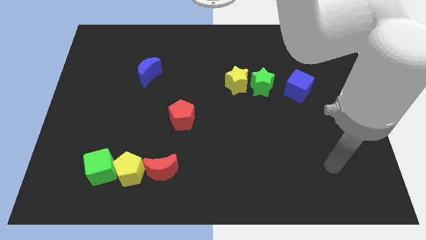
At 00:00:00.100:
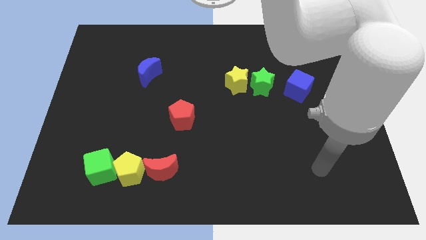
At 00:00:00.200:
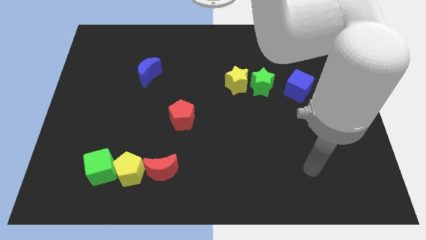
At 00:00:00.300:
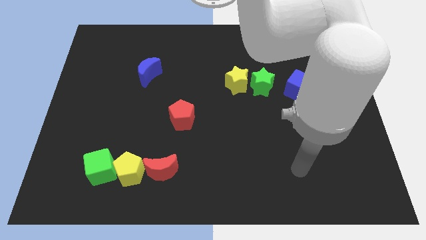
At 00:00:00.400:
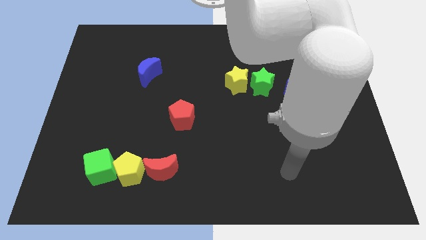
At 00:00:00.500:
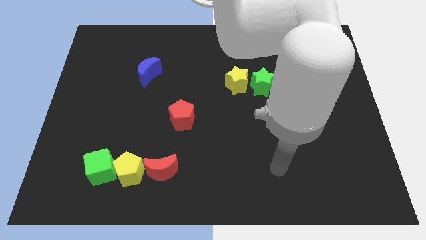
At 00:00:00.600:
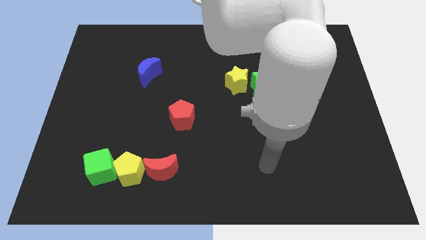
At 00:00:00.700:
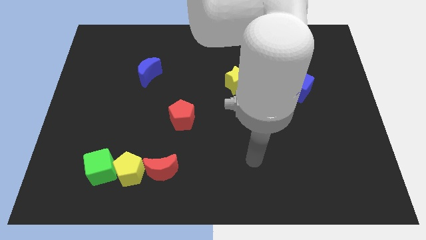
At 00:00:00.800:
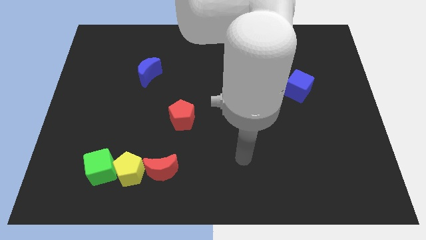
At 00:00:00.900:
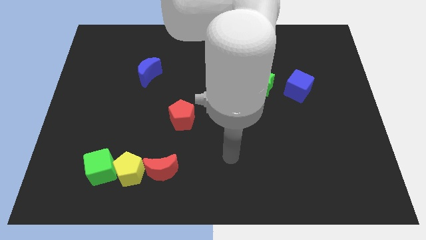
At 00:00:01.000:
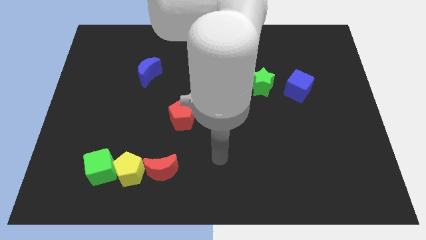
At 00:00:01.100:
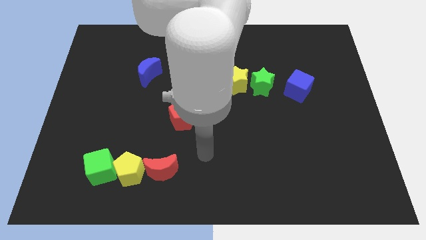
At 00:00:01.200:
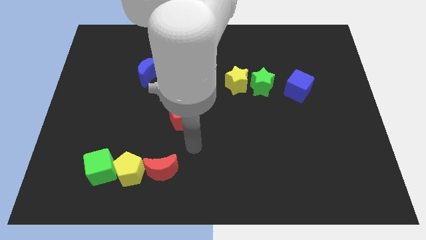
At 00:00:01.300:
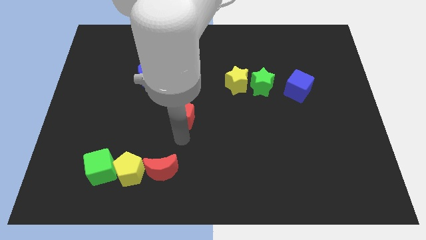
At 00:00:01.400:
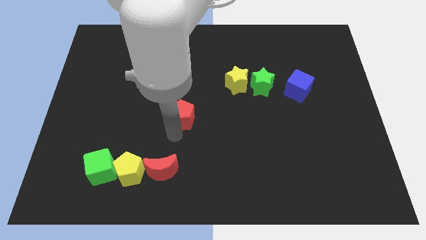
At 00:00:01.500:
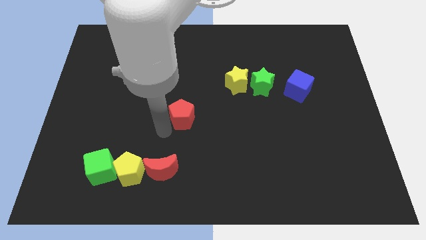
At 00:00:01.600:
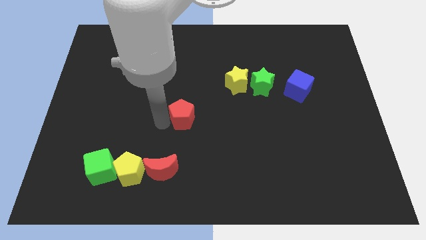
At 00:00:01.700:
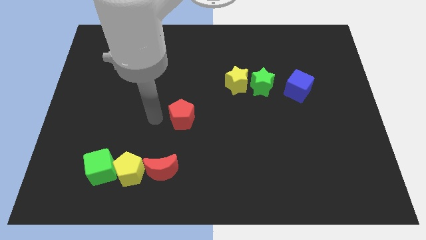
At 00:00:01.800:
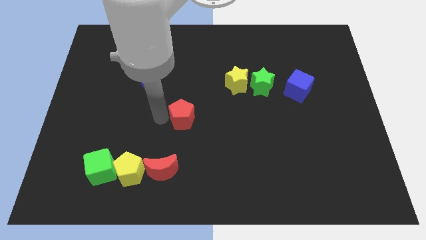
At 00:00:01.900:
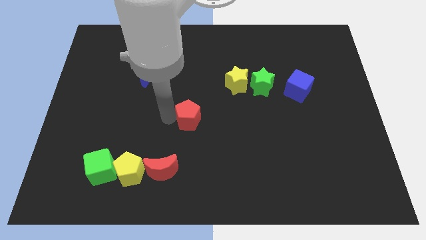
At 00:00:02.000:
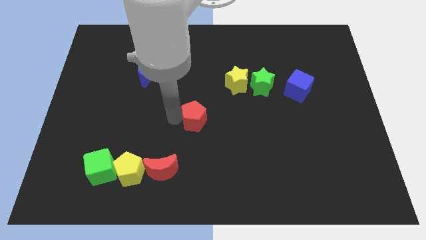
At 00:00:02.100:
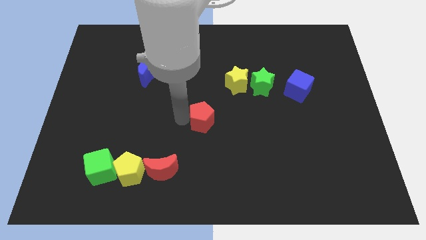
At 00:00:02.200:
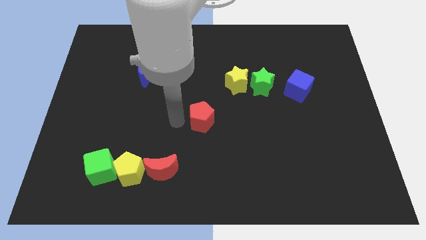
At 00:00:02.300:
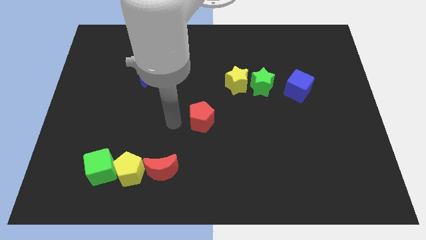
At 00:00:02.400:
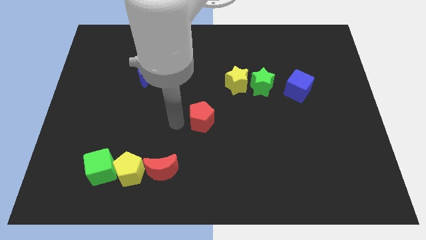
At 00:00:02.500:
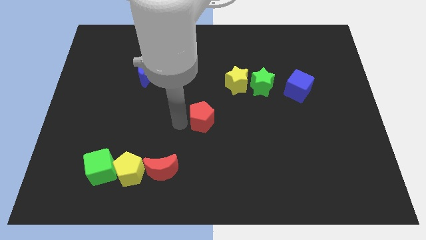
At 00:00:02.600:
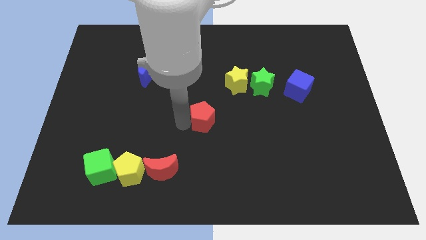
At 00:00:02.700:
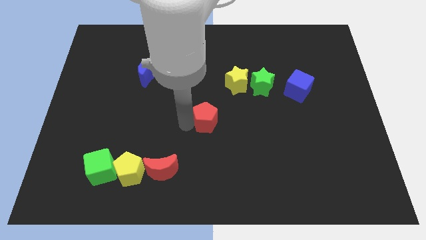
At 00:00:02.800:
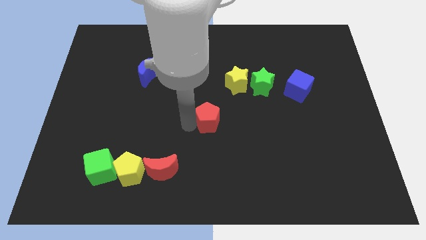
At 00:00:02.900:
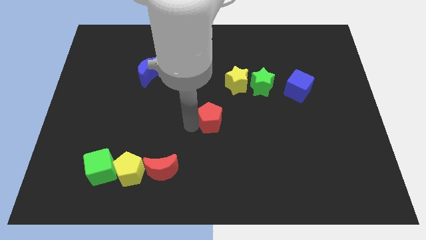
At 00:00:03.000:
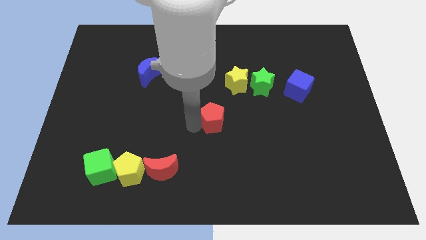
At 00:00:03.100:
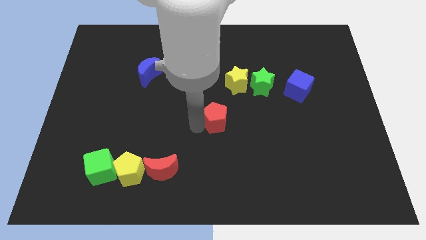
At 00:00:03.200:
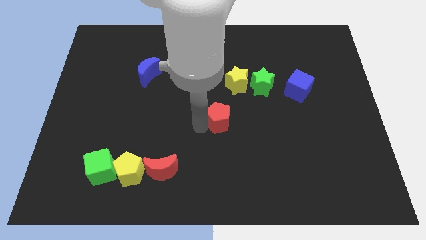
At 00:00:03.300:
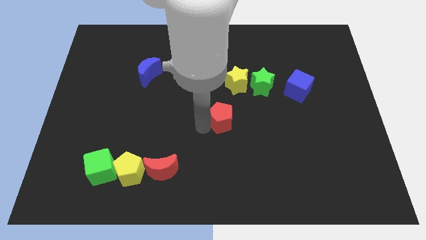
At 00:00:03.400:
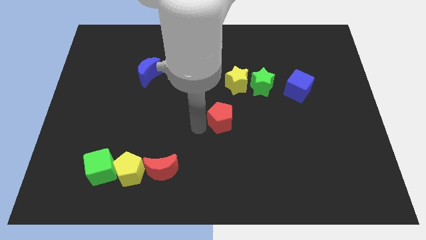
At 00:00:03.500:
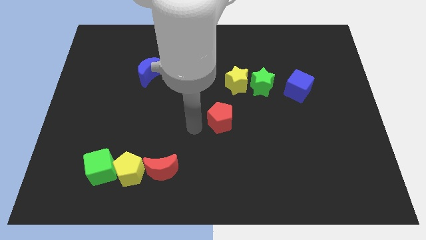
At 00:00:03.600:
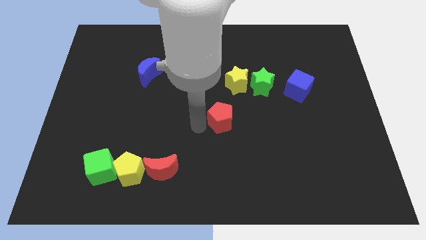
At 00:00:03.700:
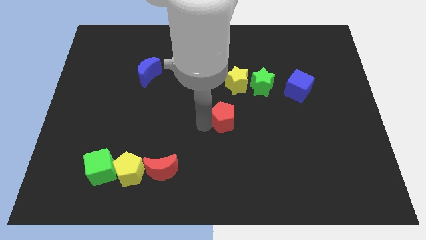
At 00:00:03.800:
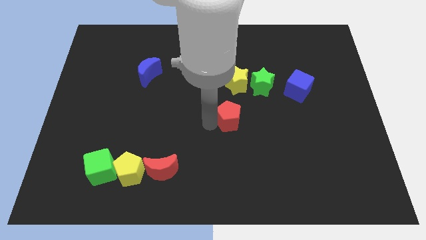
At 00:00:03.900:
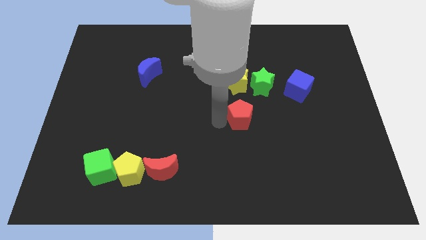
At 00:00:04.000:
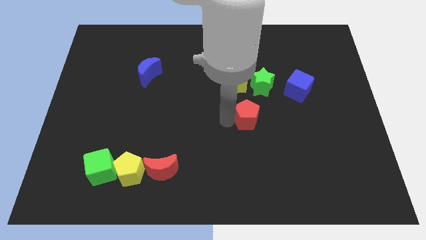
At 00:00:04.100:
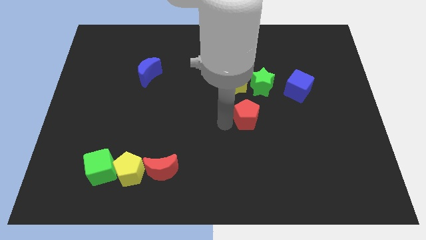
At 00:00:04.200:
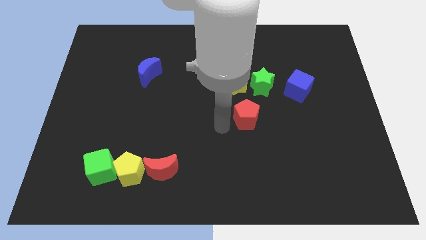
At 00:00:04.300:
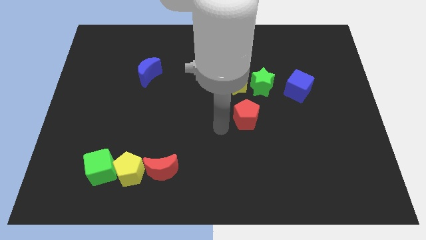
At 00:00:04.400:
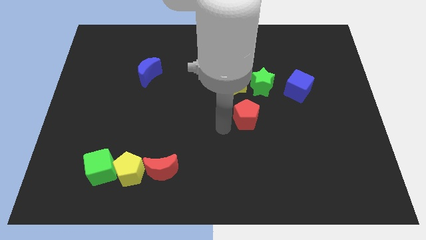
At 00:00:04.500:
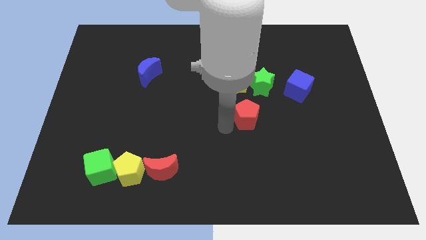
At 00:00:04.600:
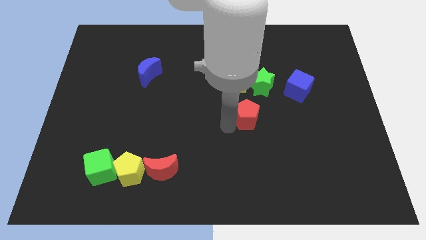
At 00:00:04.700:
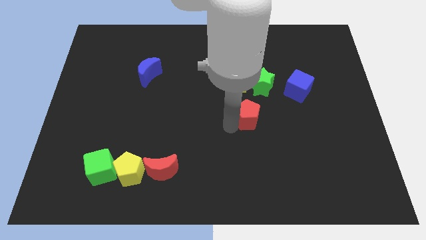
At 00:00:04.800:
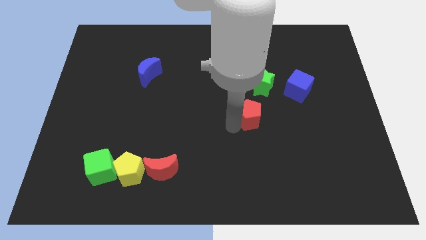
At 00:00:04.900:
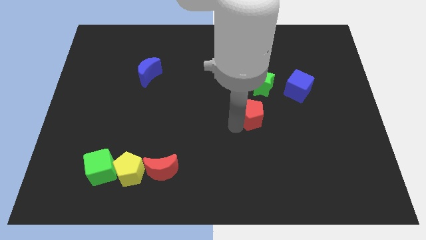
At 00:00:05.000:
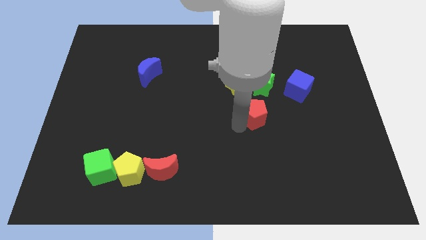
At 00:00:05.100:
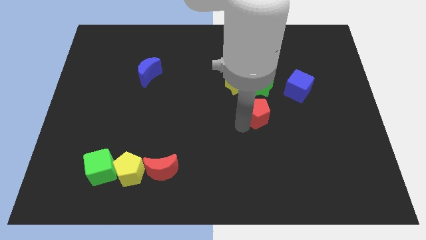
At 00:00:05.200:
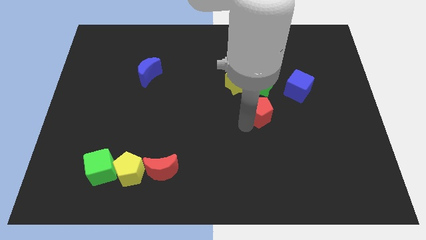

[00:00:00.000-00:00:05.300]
move the red pentagon to the bottom left of the blue cube

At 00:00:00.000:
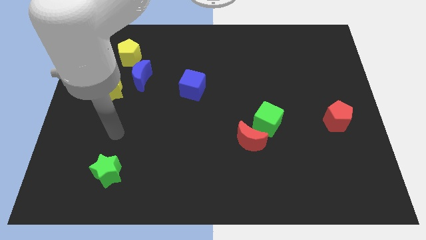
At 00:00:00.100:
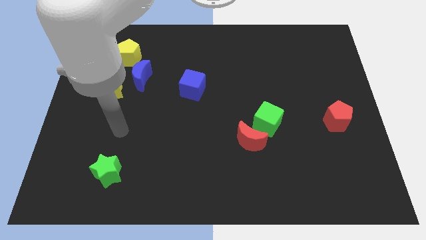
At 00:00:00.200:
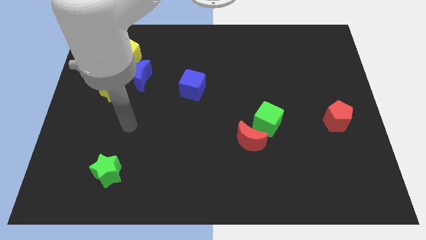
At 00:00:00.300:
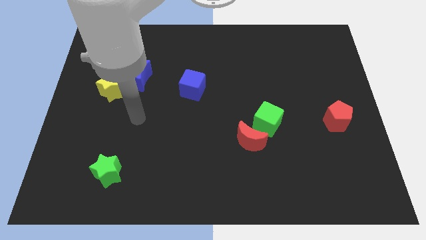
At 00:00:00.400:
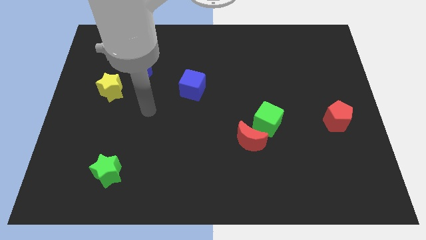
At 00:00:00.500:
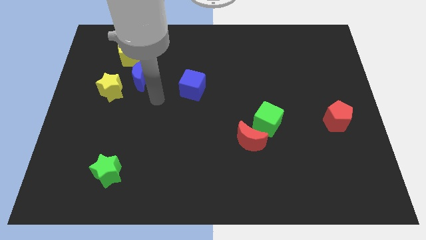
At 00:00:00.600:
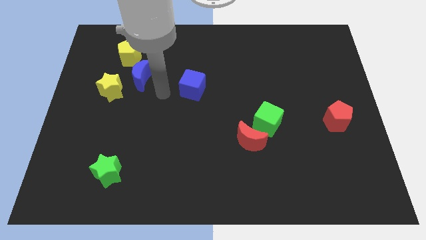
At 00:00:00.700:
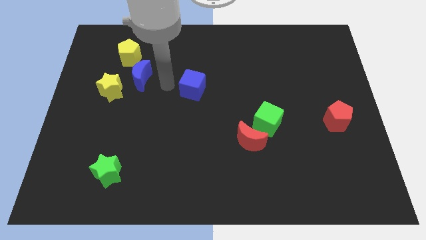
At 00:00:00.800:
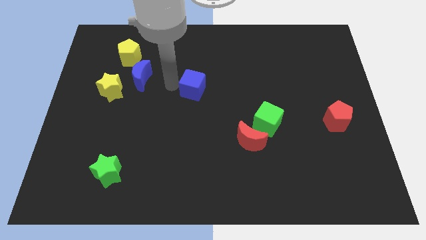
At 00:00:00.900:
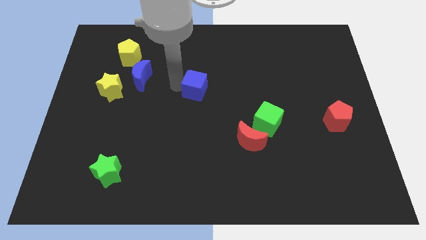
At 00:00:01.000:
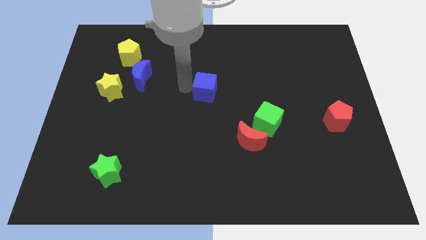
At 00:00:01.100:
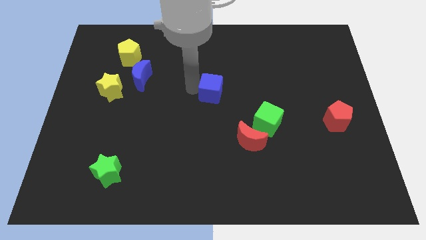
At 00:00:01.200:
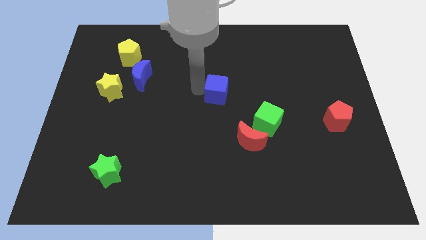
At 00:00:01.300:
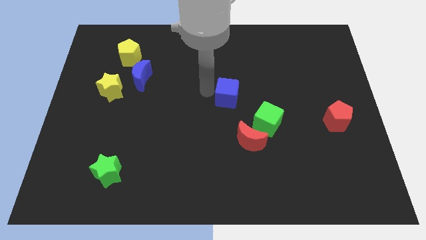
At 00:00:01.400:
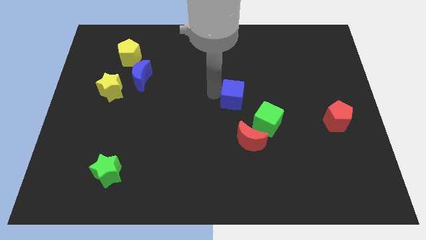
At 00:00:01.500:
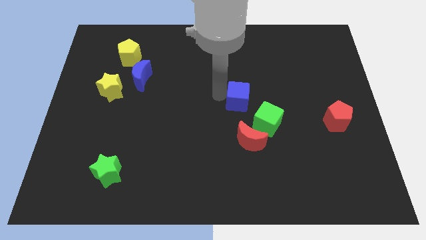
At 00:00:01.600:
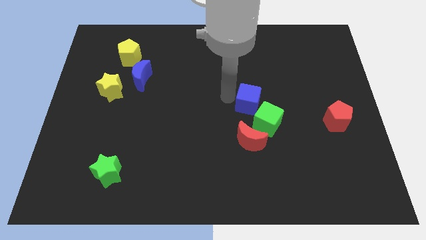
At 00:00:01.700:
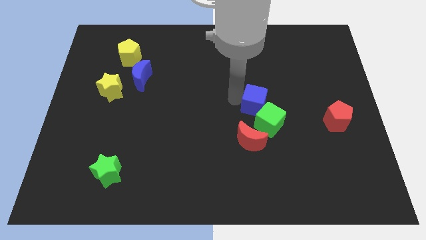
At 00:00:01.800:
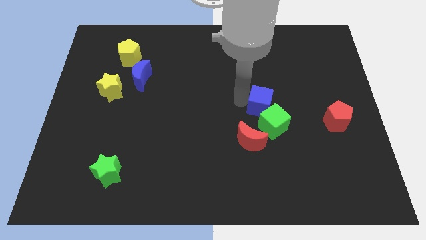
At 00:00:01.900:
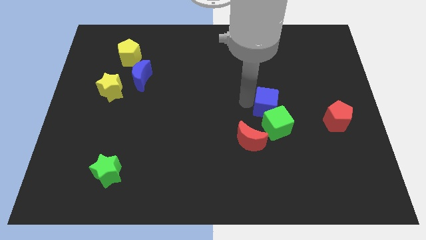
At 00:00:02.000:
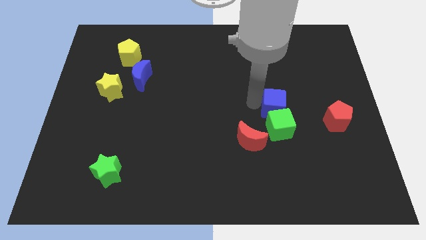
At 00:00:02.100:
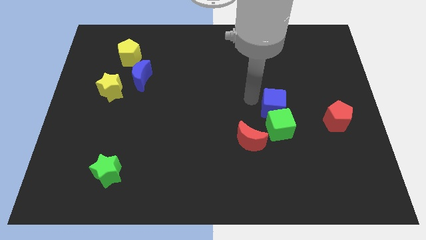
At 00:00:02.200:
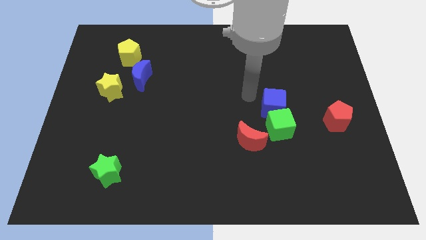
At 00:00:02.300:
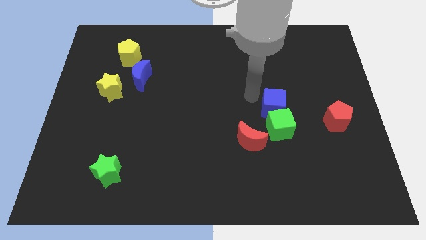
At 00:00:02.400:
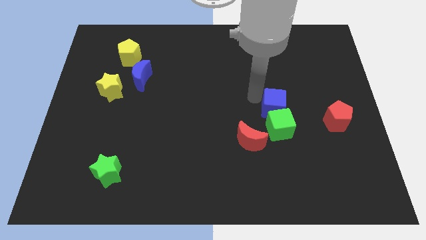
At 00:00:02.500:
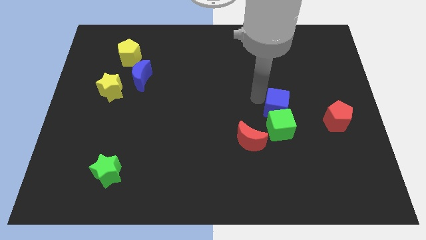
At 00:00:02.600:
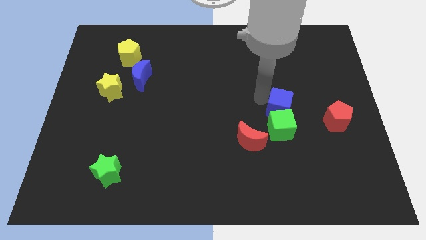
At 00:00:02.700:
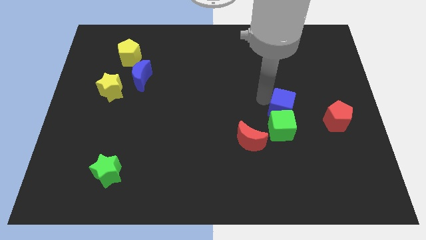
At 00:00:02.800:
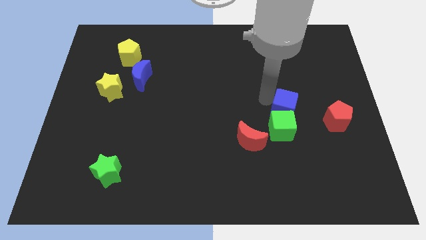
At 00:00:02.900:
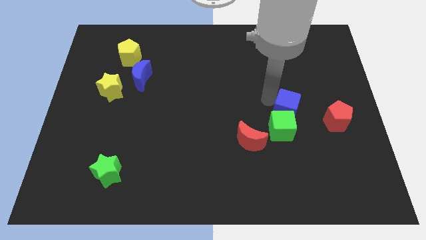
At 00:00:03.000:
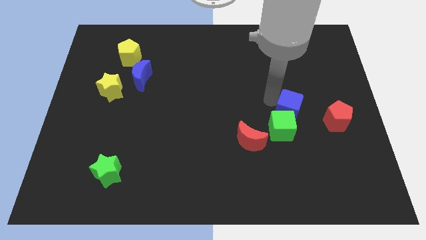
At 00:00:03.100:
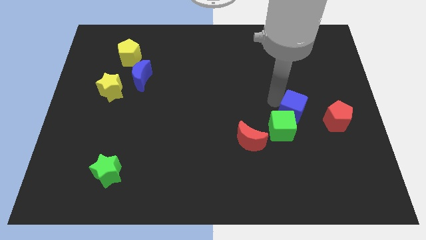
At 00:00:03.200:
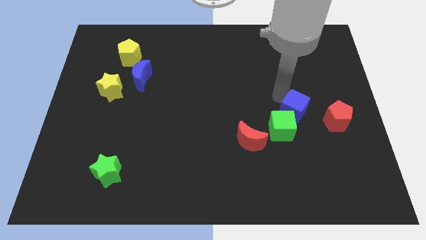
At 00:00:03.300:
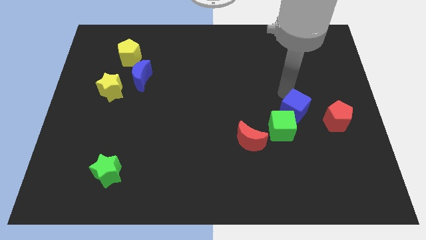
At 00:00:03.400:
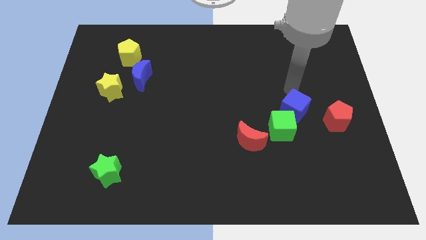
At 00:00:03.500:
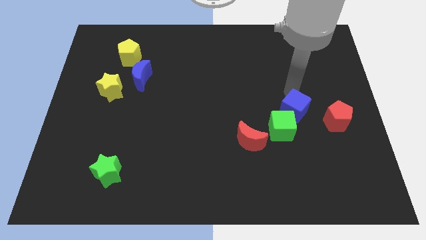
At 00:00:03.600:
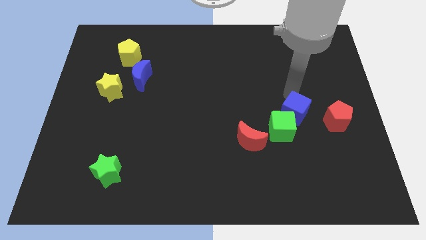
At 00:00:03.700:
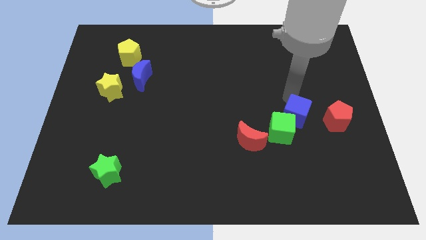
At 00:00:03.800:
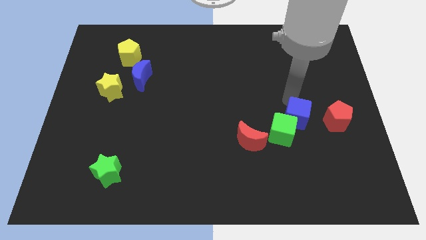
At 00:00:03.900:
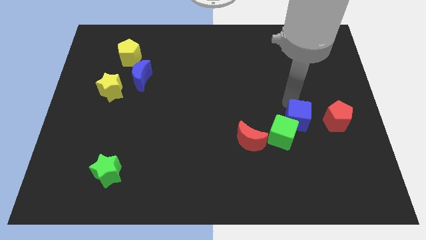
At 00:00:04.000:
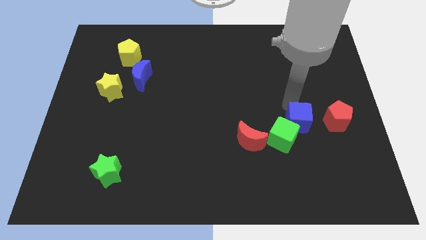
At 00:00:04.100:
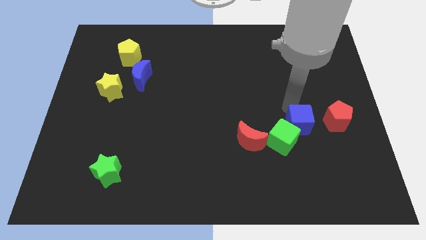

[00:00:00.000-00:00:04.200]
move the blue cube to the right side of the red moon
